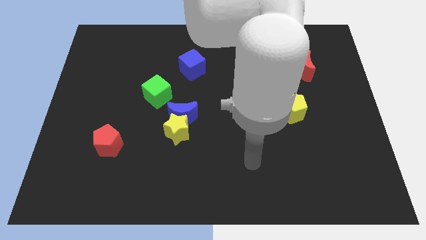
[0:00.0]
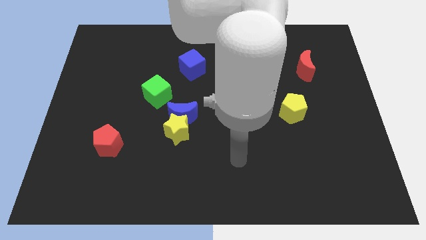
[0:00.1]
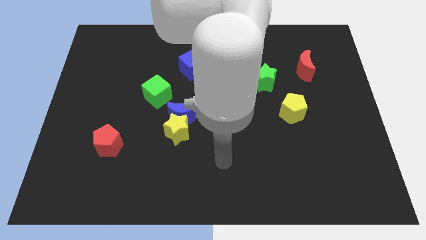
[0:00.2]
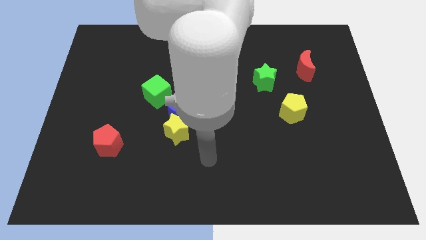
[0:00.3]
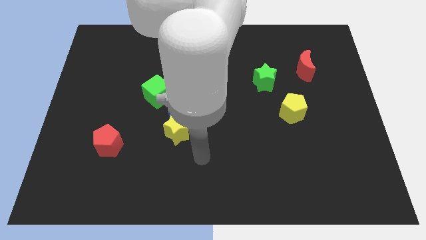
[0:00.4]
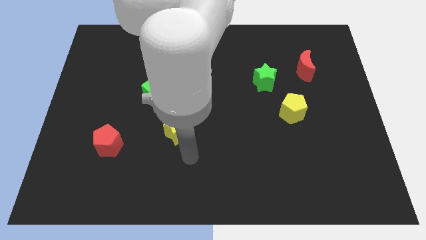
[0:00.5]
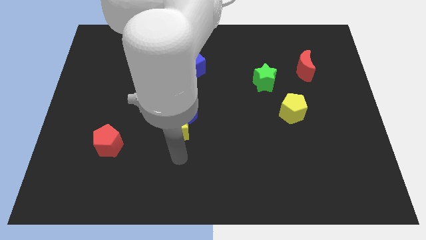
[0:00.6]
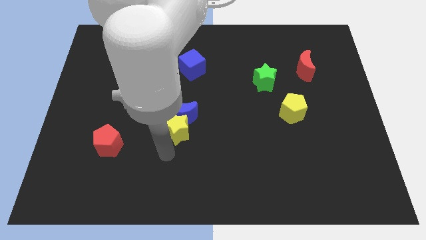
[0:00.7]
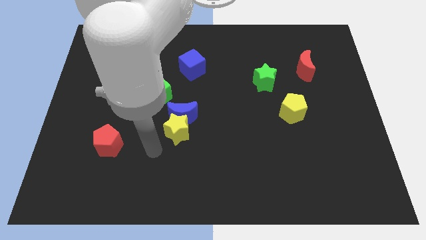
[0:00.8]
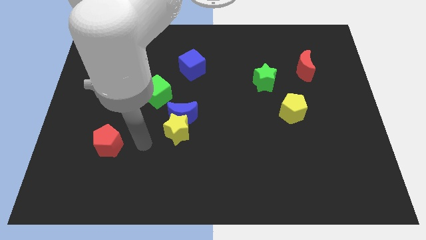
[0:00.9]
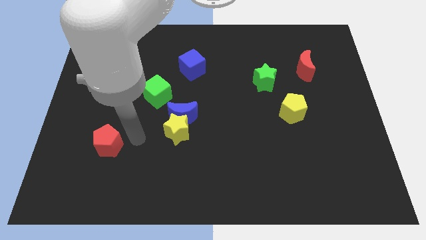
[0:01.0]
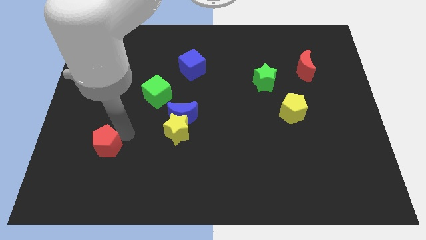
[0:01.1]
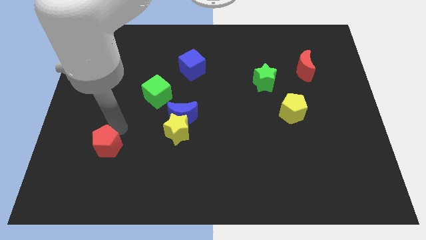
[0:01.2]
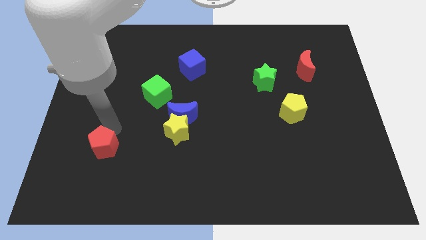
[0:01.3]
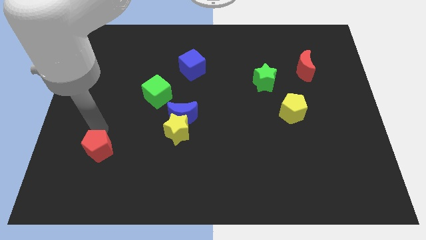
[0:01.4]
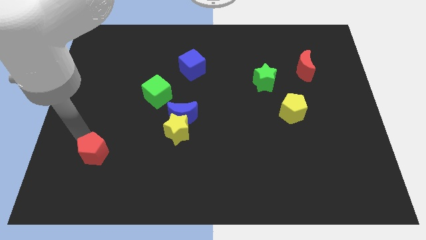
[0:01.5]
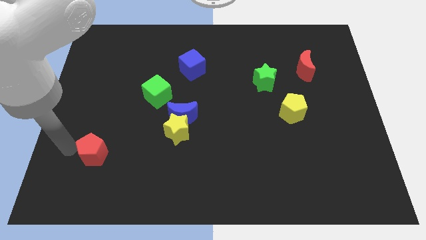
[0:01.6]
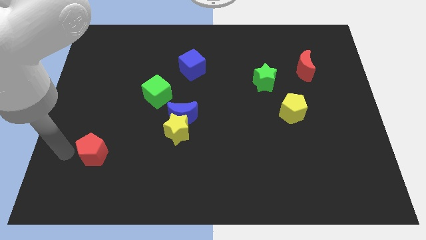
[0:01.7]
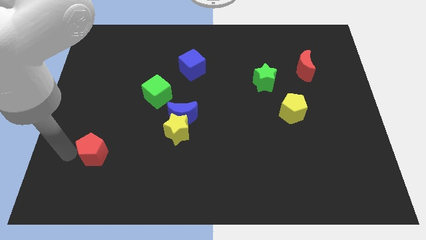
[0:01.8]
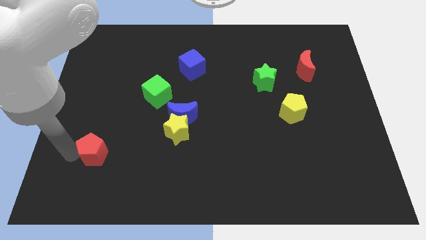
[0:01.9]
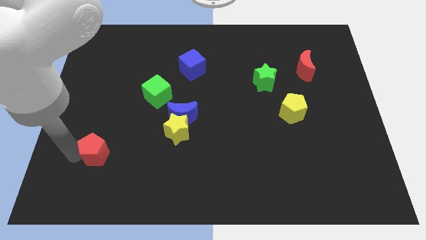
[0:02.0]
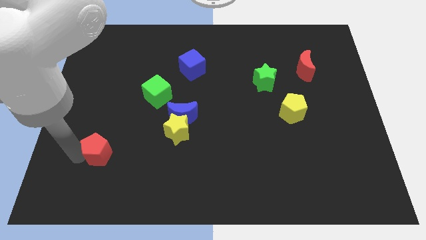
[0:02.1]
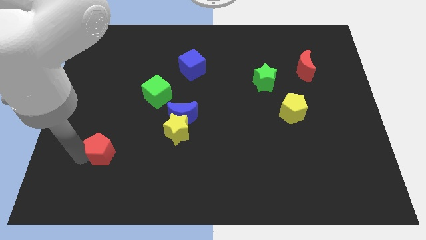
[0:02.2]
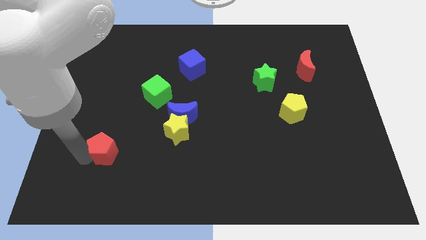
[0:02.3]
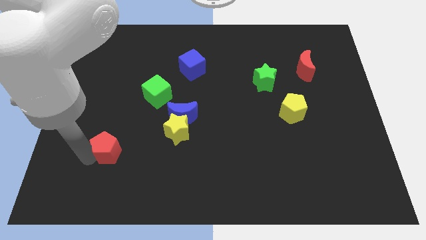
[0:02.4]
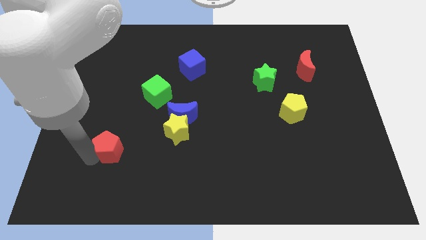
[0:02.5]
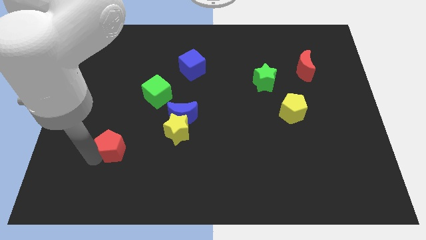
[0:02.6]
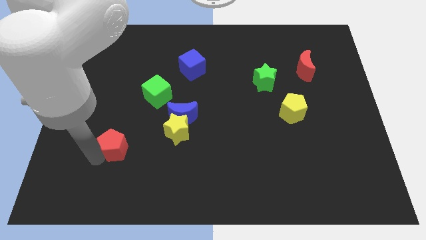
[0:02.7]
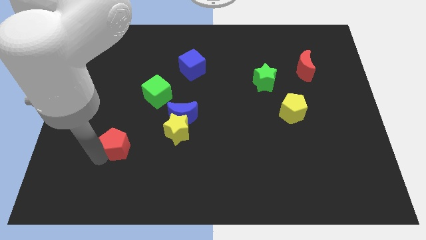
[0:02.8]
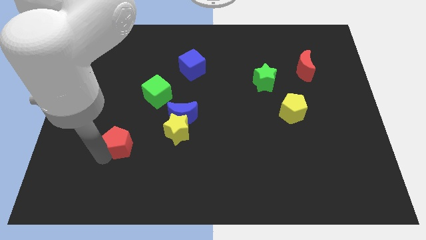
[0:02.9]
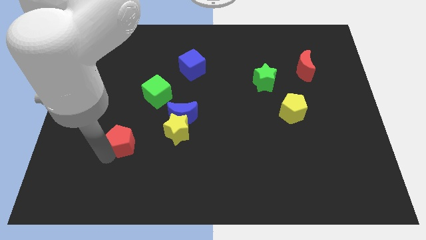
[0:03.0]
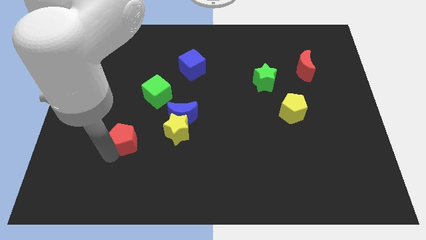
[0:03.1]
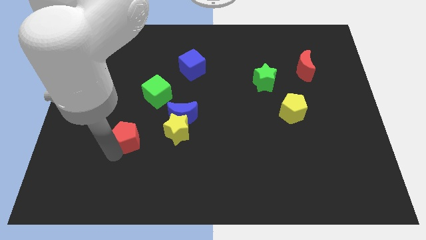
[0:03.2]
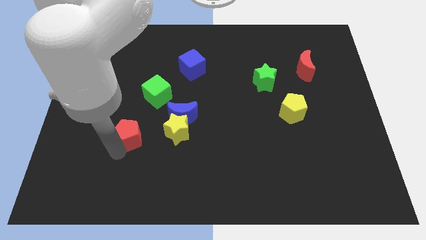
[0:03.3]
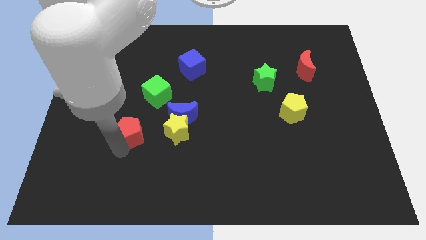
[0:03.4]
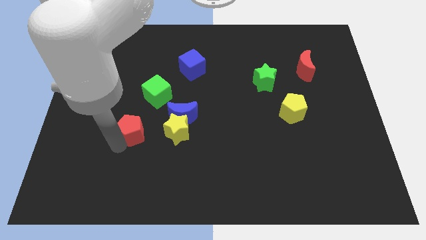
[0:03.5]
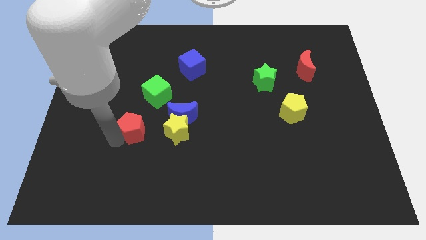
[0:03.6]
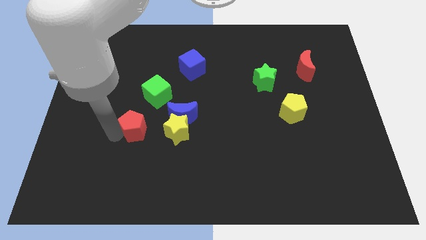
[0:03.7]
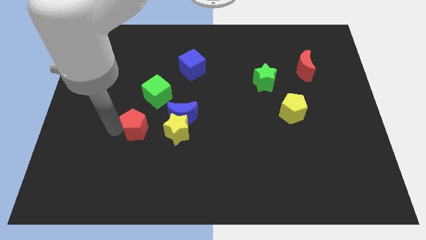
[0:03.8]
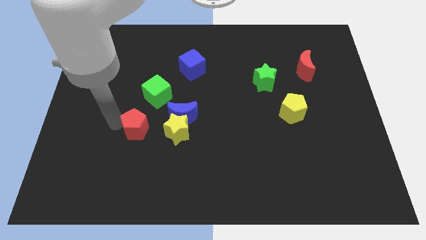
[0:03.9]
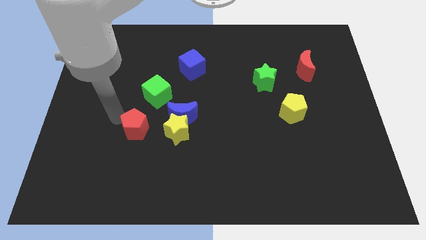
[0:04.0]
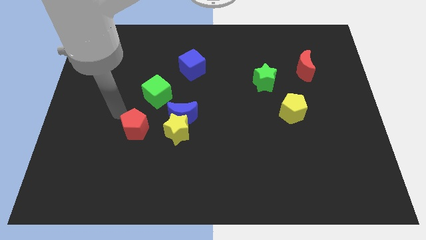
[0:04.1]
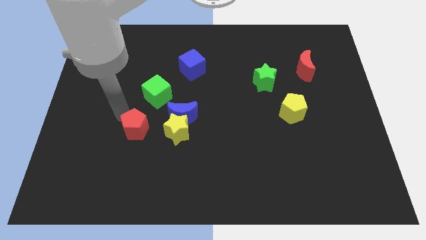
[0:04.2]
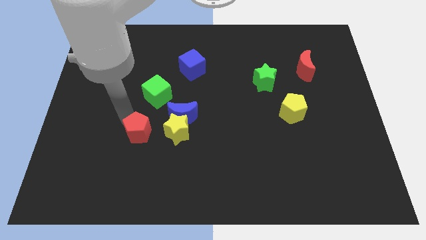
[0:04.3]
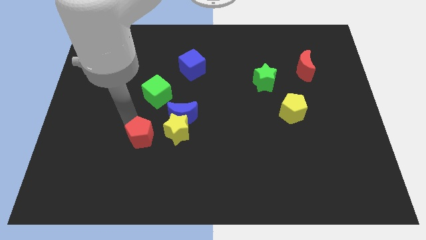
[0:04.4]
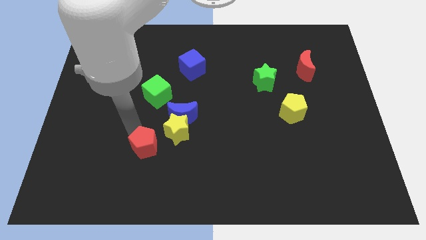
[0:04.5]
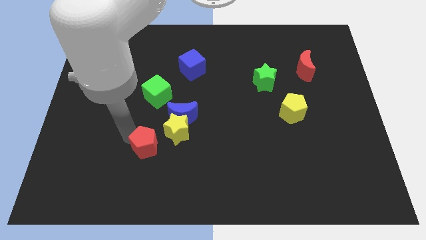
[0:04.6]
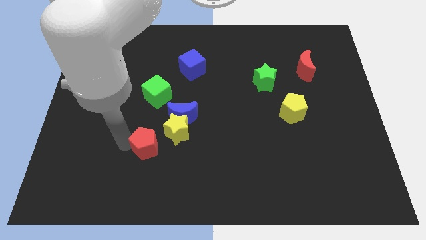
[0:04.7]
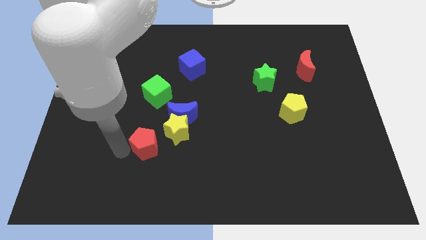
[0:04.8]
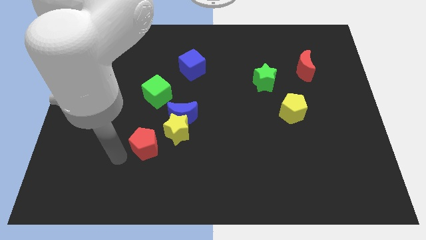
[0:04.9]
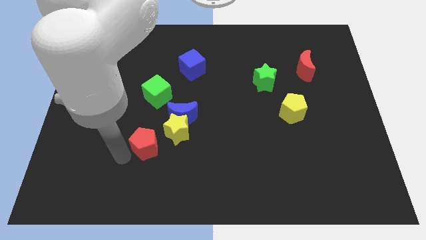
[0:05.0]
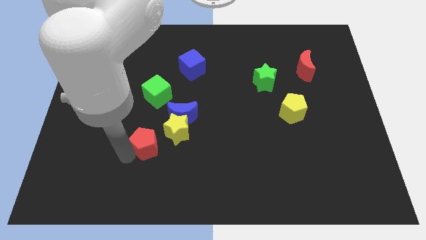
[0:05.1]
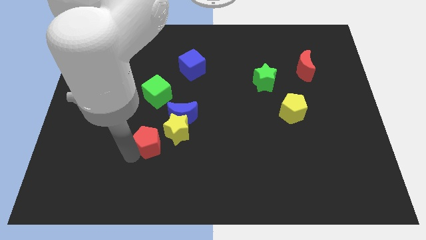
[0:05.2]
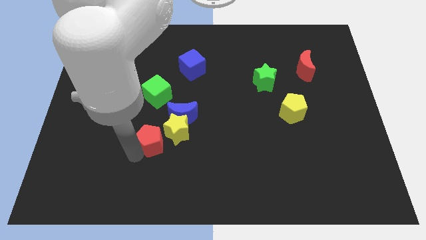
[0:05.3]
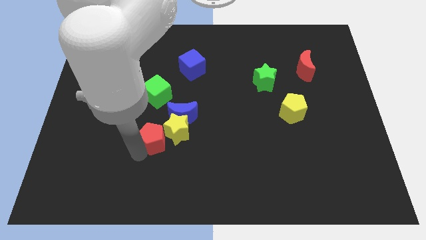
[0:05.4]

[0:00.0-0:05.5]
push the red pentagon towards the yellow star

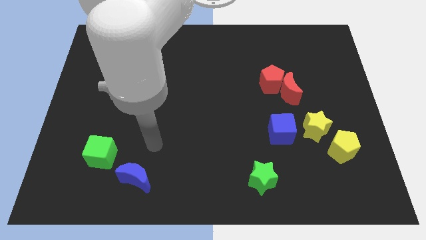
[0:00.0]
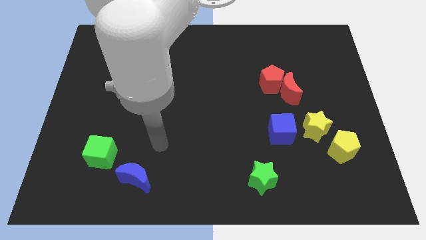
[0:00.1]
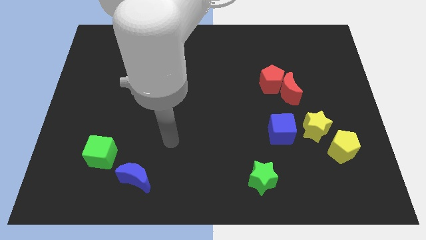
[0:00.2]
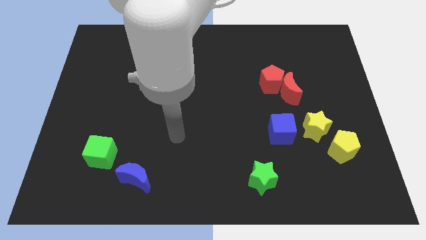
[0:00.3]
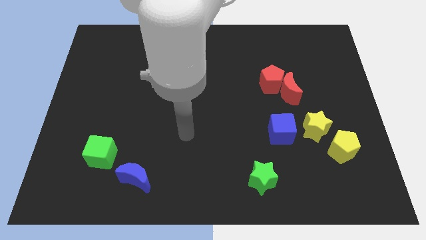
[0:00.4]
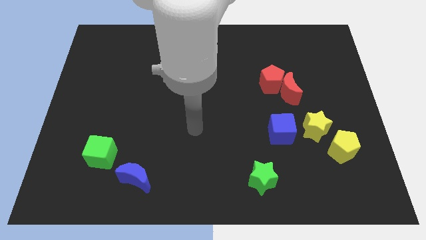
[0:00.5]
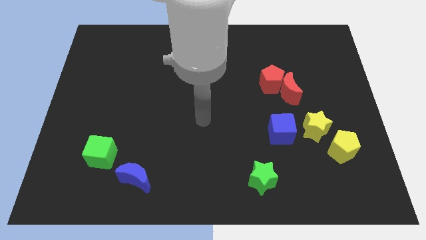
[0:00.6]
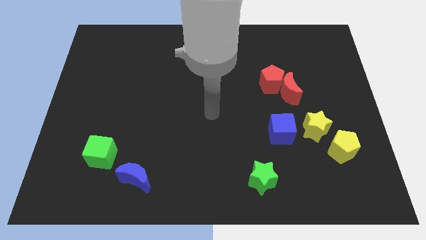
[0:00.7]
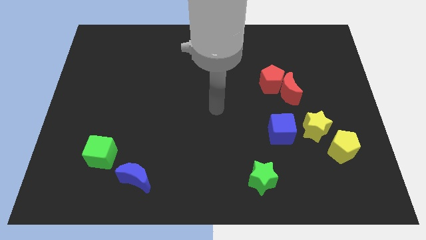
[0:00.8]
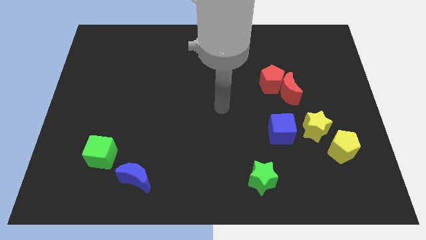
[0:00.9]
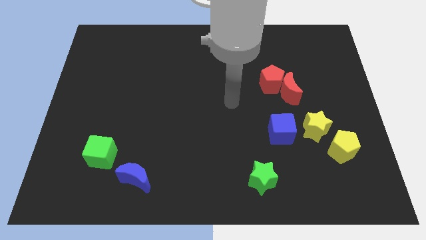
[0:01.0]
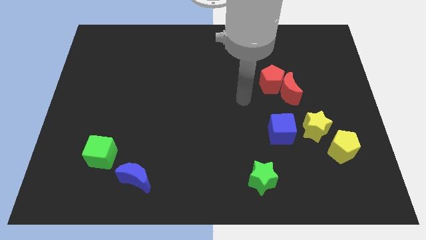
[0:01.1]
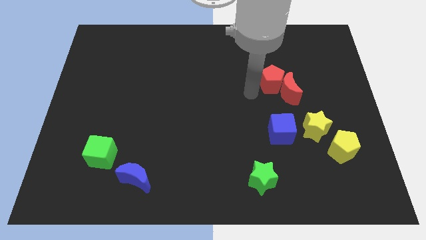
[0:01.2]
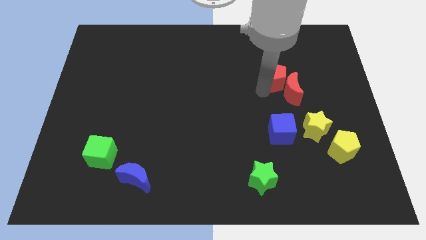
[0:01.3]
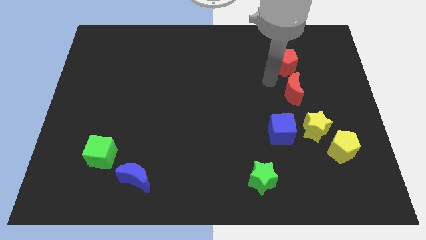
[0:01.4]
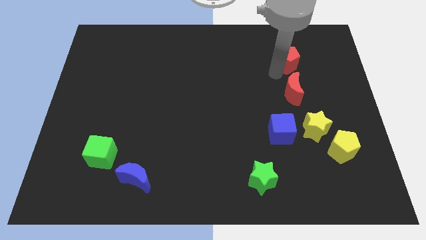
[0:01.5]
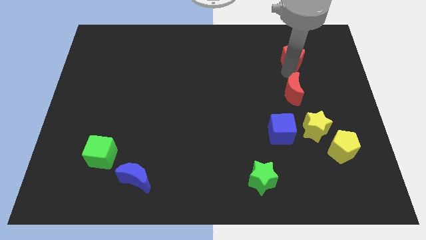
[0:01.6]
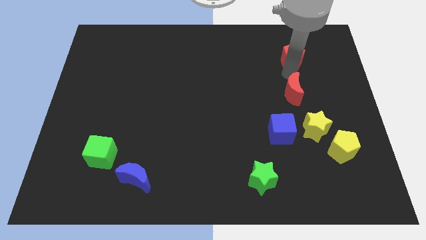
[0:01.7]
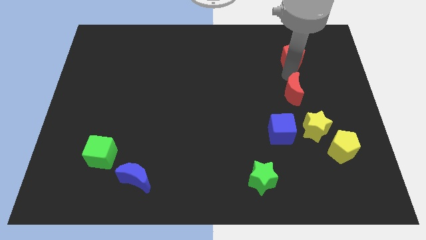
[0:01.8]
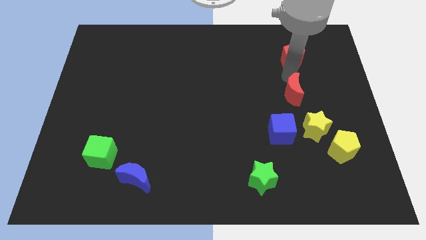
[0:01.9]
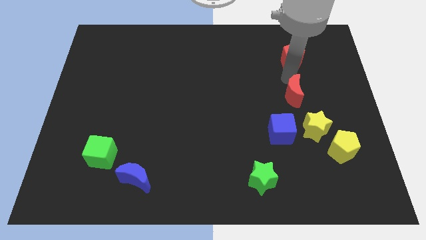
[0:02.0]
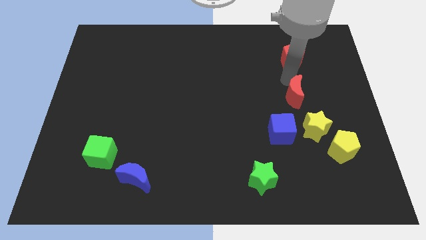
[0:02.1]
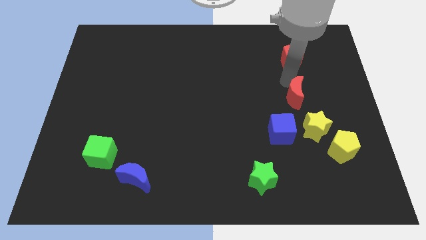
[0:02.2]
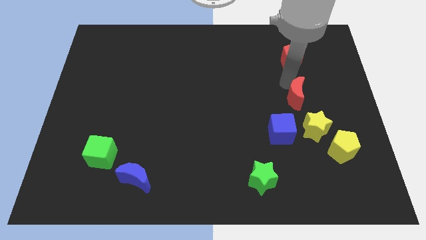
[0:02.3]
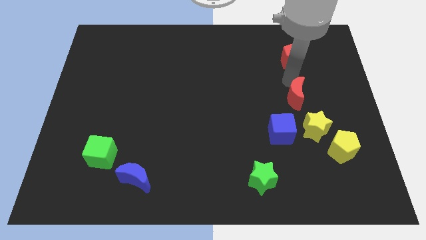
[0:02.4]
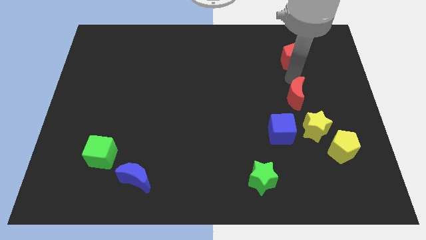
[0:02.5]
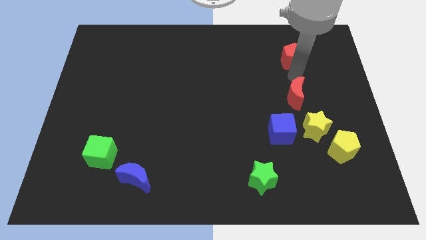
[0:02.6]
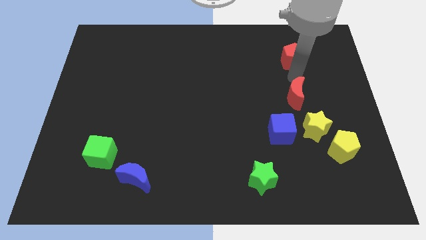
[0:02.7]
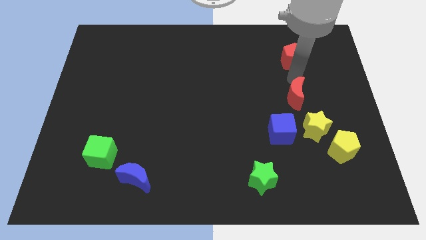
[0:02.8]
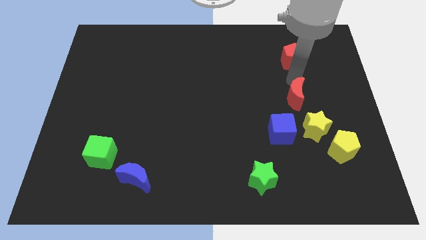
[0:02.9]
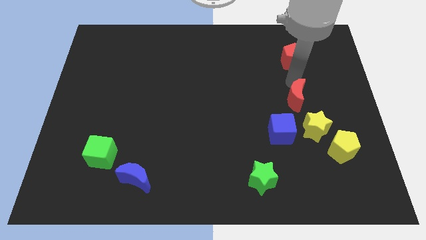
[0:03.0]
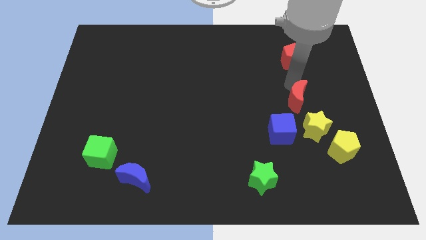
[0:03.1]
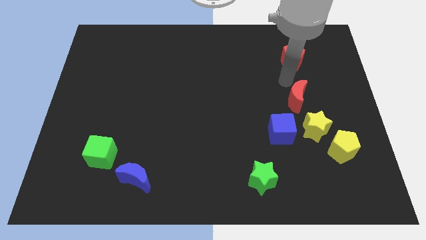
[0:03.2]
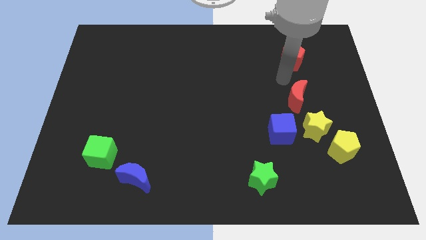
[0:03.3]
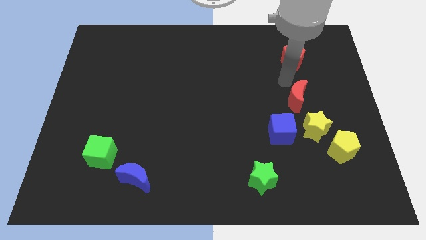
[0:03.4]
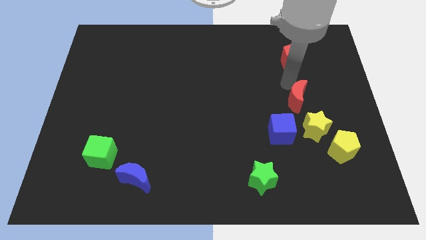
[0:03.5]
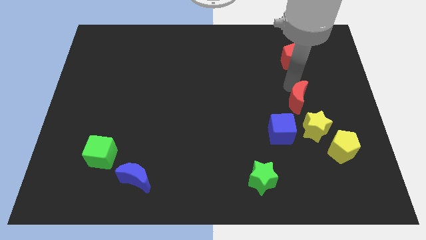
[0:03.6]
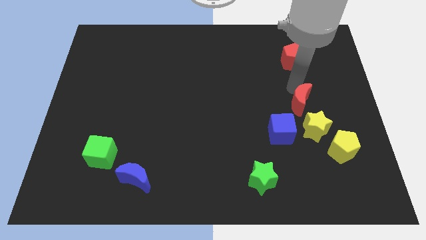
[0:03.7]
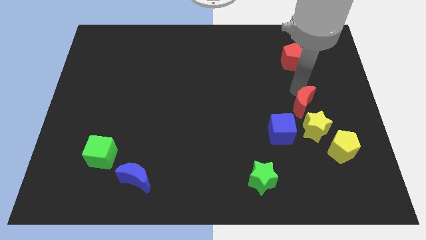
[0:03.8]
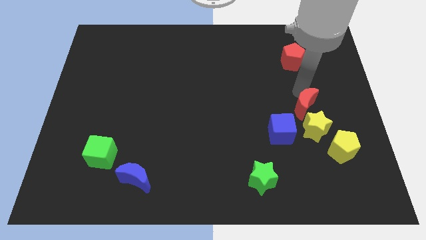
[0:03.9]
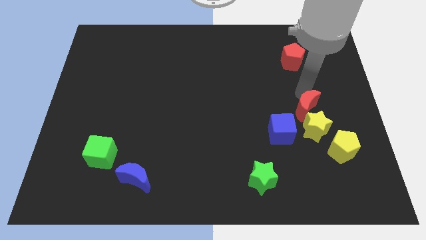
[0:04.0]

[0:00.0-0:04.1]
put the red moon to the yellow star
